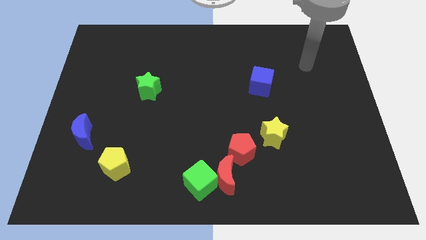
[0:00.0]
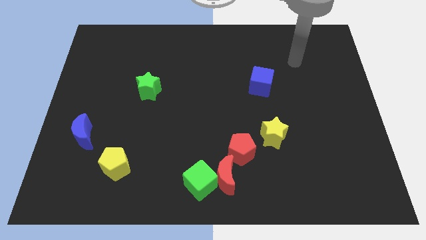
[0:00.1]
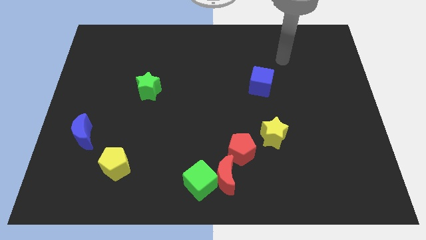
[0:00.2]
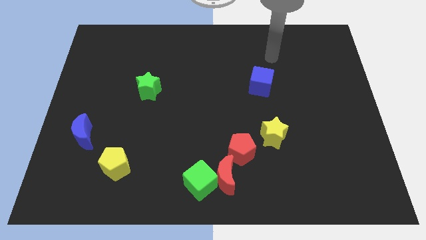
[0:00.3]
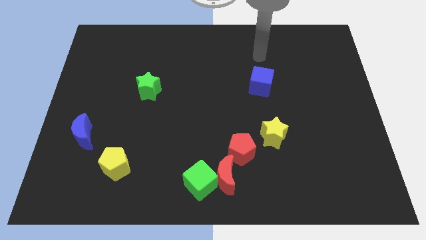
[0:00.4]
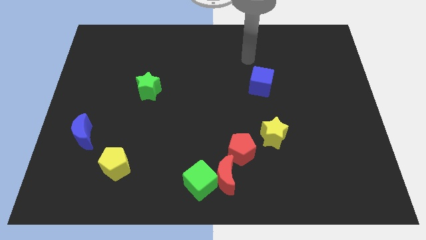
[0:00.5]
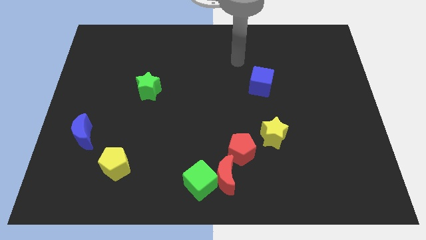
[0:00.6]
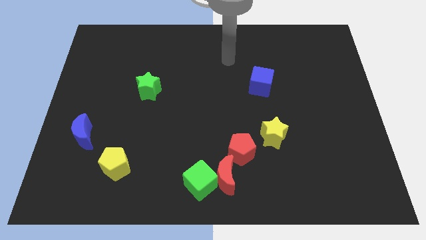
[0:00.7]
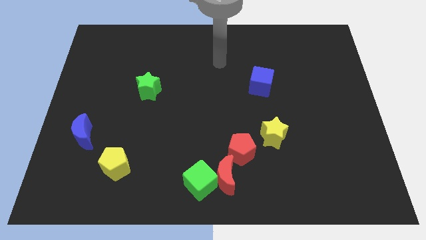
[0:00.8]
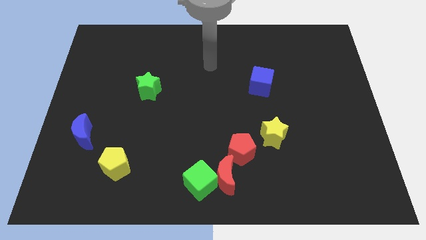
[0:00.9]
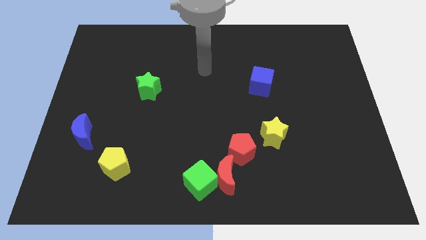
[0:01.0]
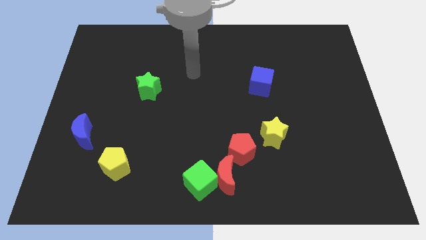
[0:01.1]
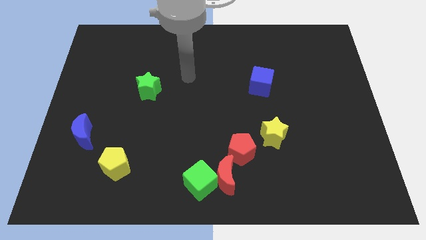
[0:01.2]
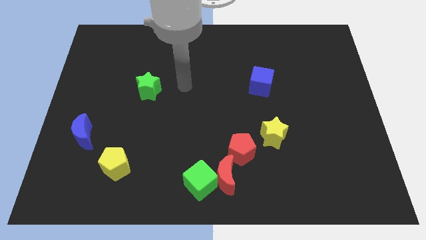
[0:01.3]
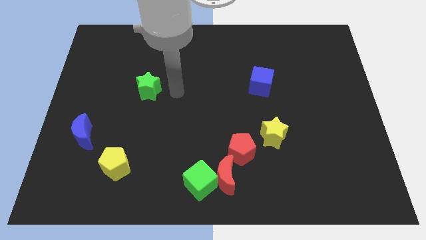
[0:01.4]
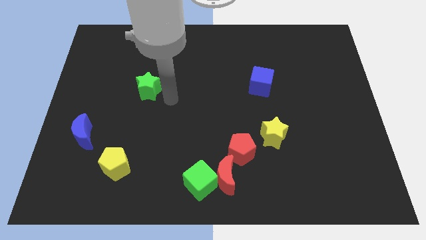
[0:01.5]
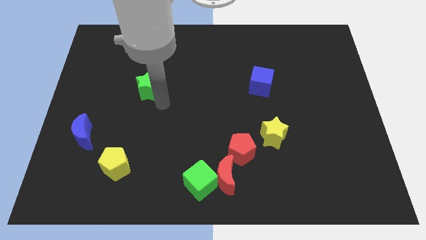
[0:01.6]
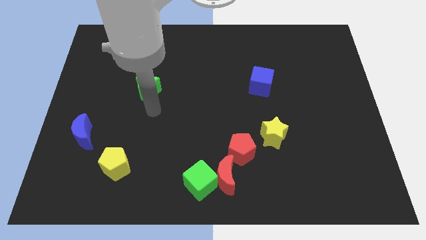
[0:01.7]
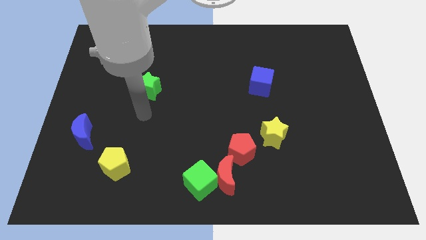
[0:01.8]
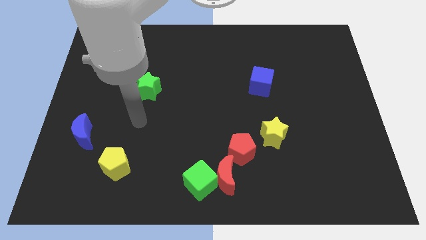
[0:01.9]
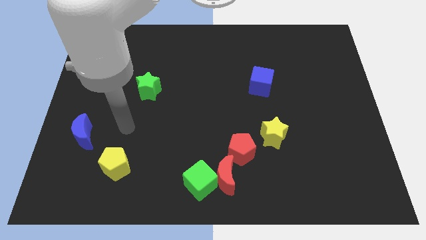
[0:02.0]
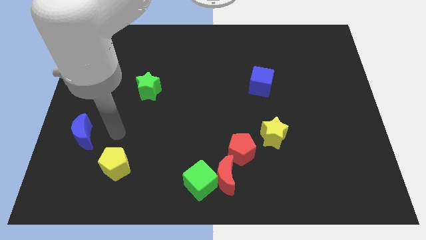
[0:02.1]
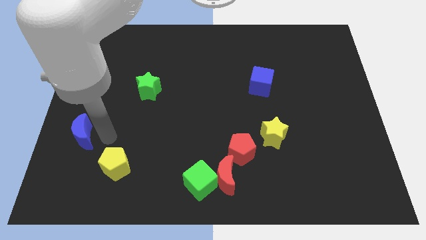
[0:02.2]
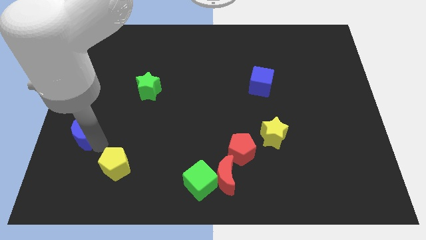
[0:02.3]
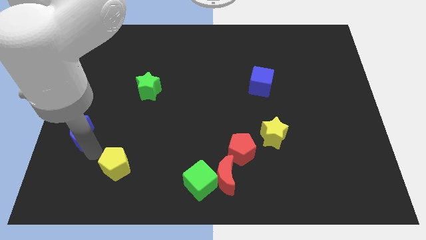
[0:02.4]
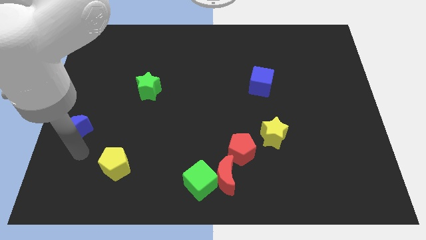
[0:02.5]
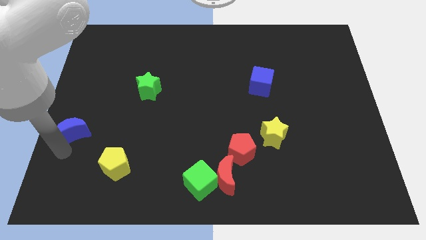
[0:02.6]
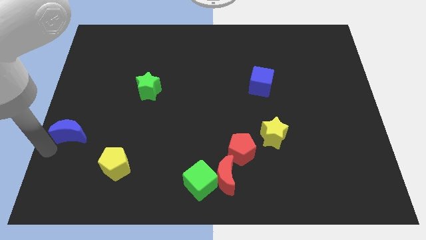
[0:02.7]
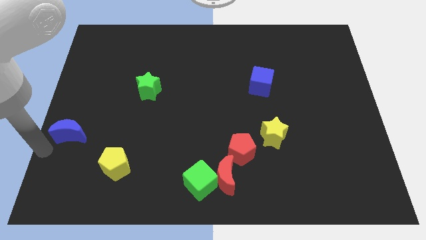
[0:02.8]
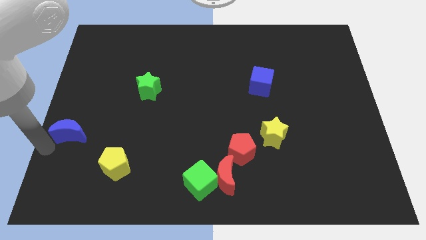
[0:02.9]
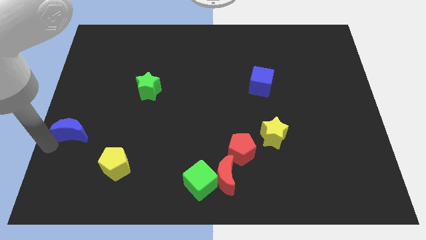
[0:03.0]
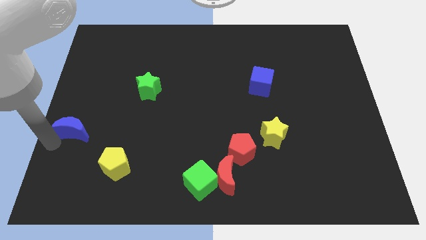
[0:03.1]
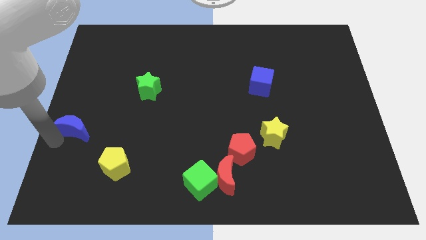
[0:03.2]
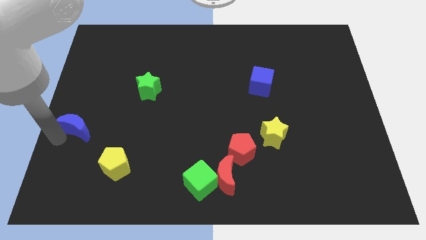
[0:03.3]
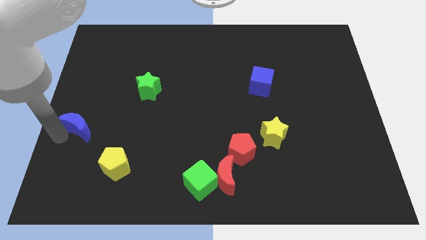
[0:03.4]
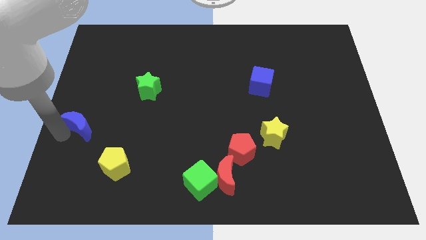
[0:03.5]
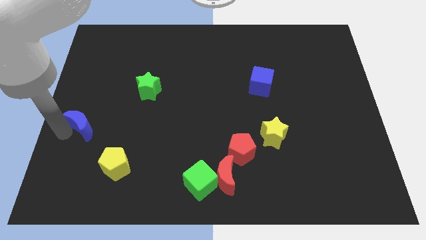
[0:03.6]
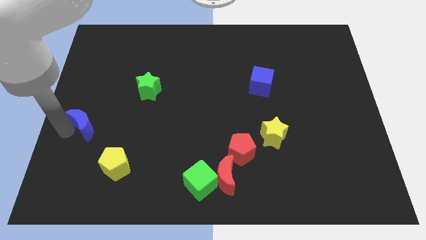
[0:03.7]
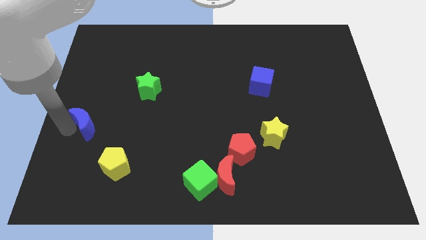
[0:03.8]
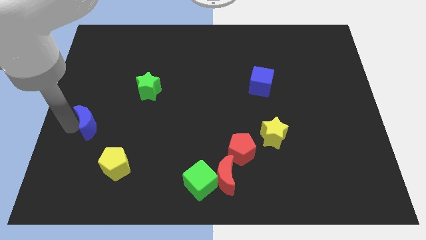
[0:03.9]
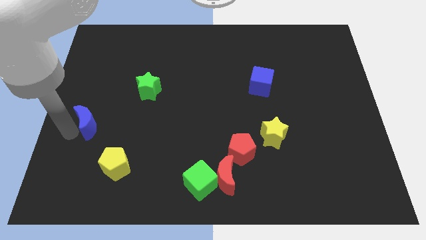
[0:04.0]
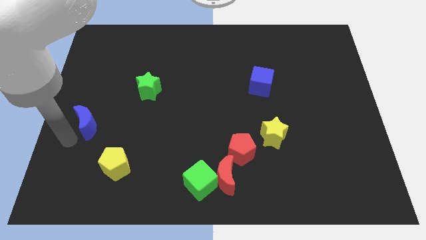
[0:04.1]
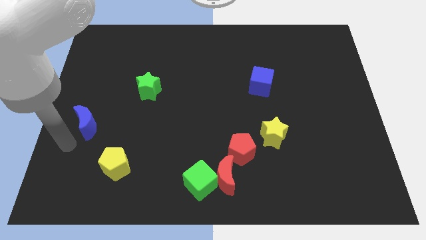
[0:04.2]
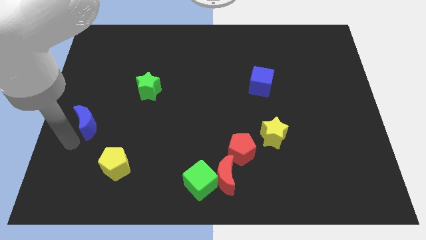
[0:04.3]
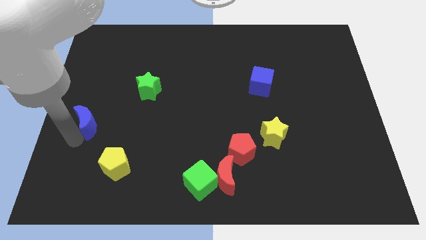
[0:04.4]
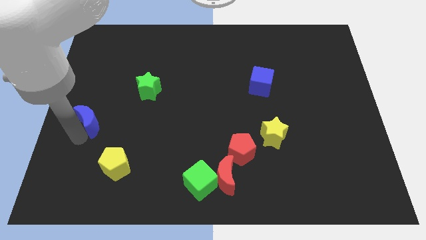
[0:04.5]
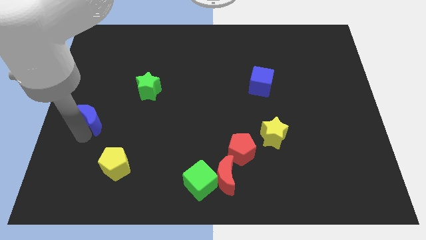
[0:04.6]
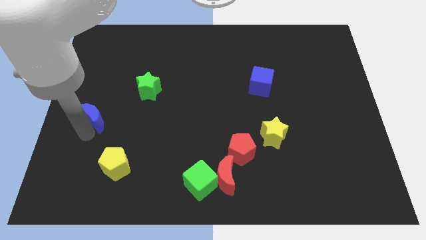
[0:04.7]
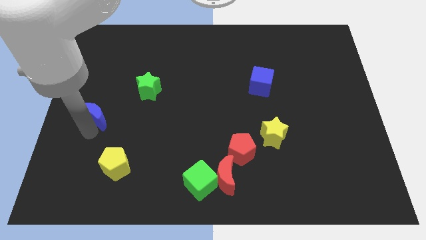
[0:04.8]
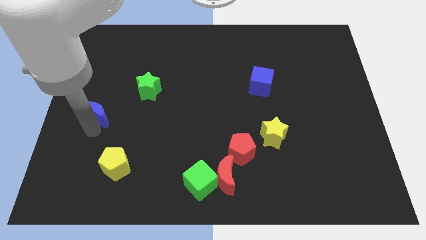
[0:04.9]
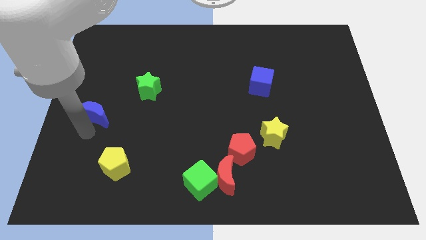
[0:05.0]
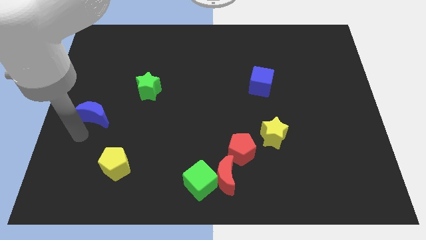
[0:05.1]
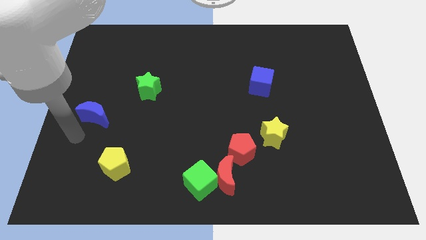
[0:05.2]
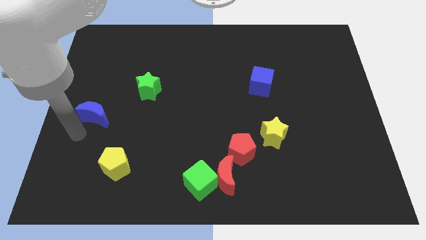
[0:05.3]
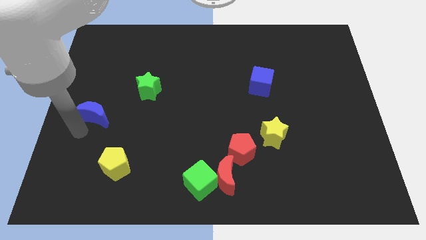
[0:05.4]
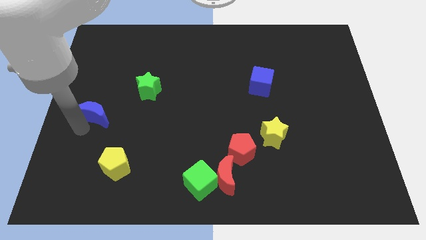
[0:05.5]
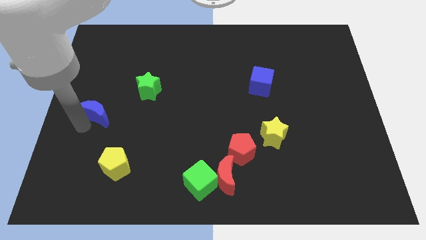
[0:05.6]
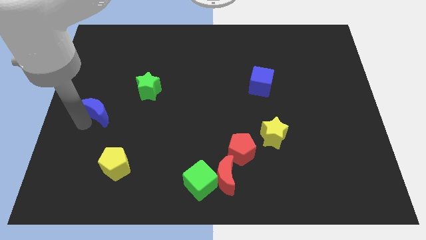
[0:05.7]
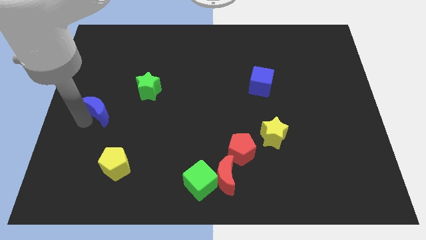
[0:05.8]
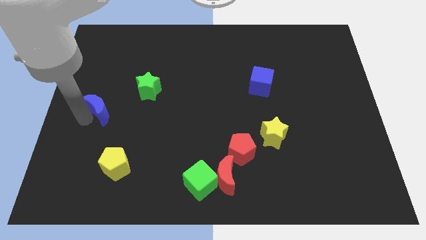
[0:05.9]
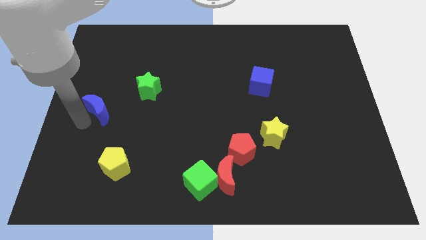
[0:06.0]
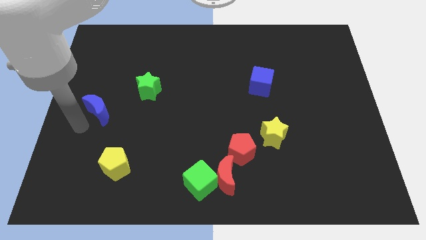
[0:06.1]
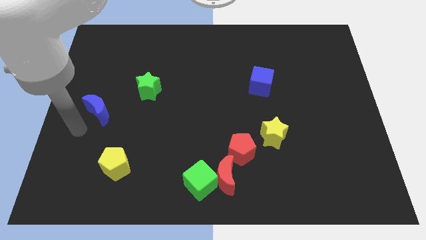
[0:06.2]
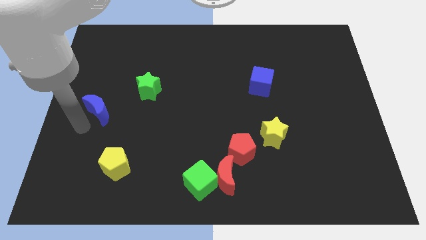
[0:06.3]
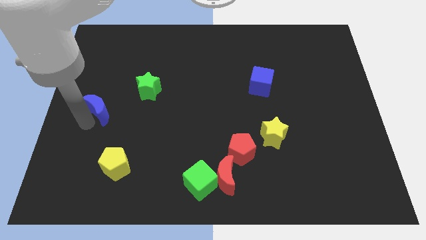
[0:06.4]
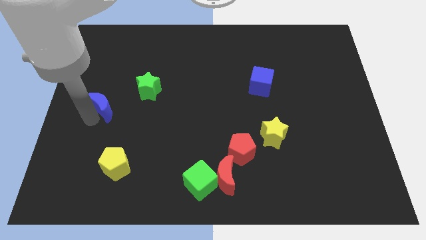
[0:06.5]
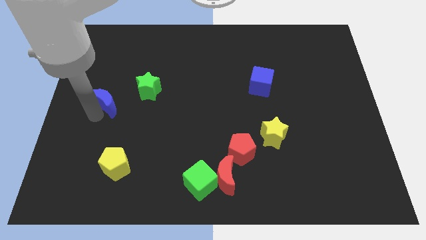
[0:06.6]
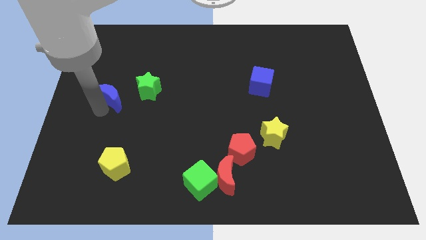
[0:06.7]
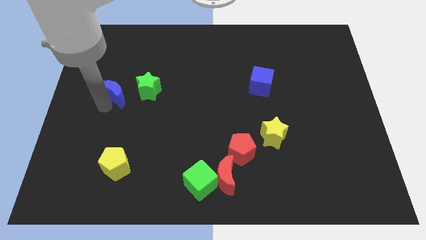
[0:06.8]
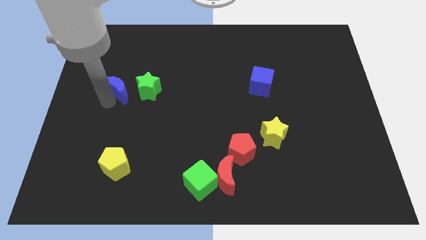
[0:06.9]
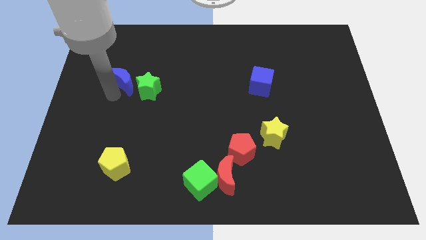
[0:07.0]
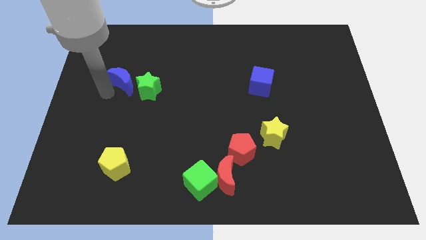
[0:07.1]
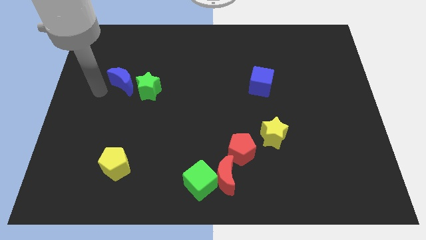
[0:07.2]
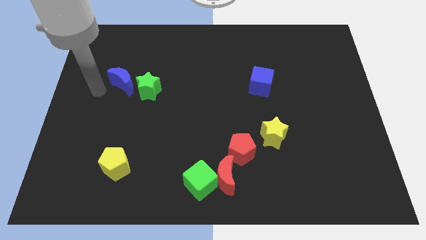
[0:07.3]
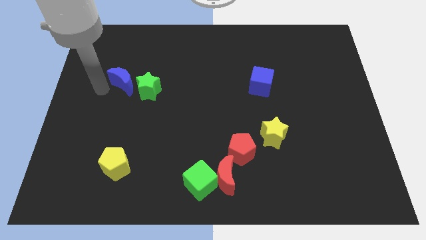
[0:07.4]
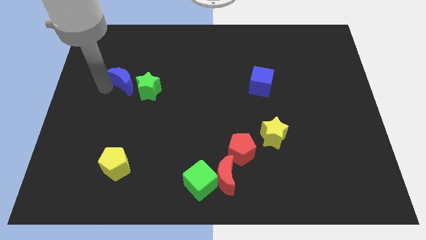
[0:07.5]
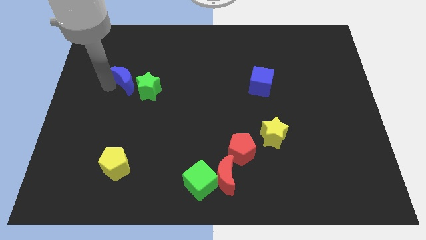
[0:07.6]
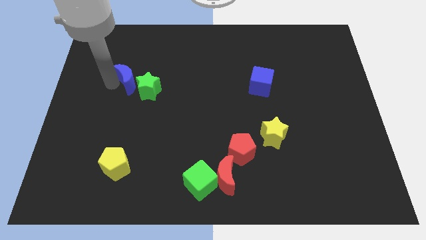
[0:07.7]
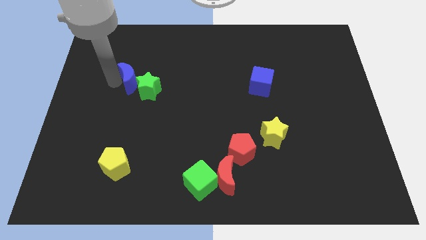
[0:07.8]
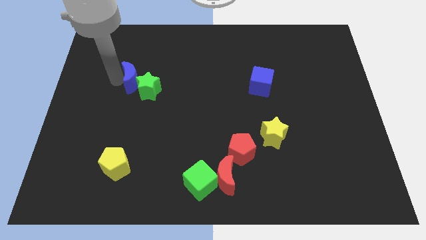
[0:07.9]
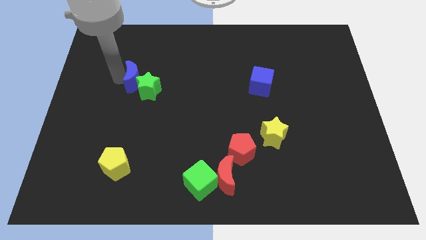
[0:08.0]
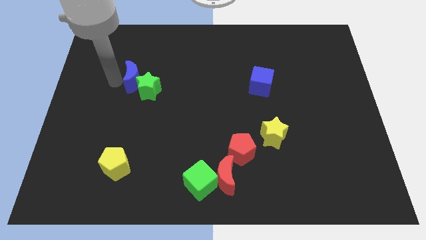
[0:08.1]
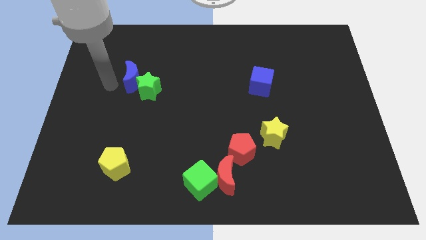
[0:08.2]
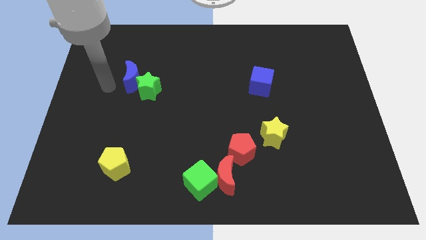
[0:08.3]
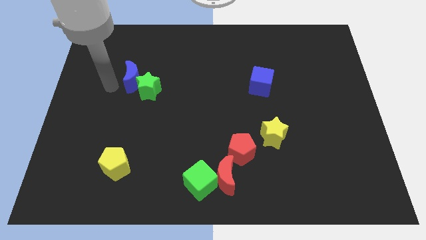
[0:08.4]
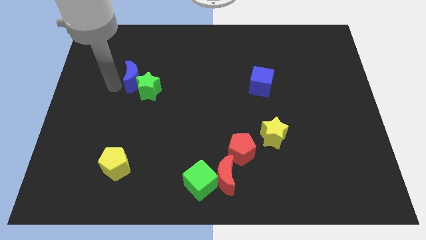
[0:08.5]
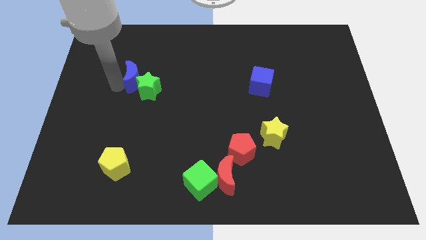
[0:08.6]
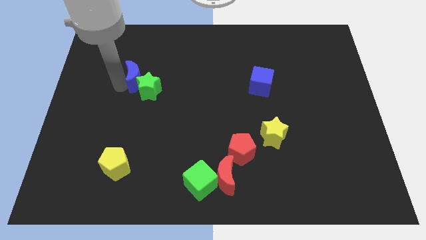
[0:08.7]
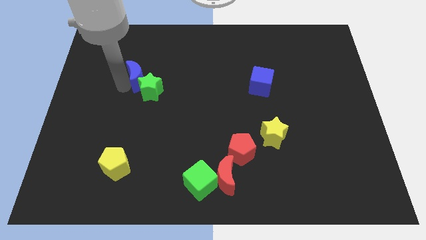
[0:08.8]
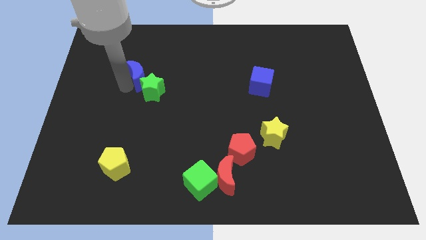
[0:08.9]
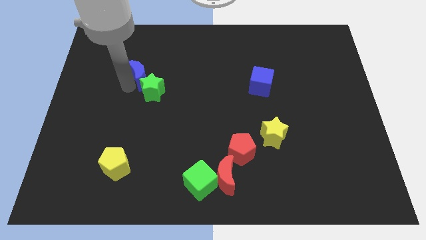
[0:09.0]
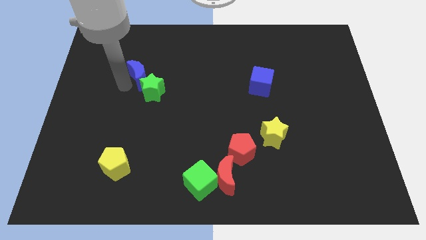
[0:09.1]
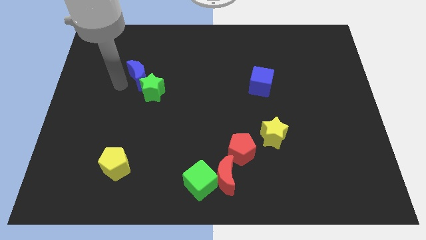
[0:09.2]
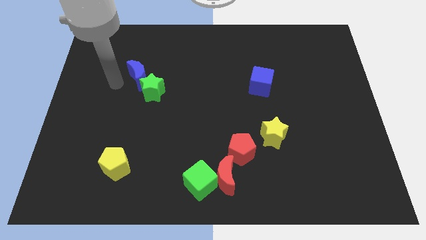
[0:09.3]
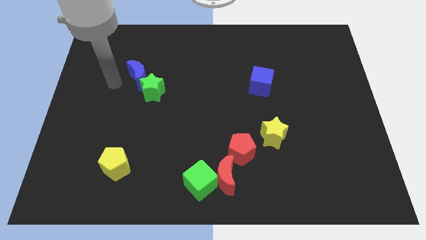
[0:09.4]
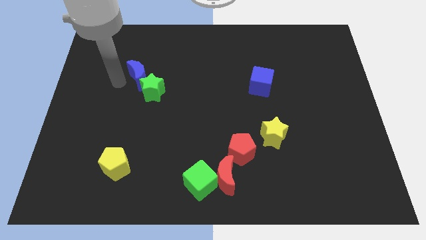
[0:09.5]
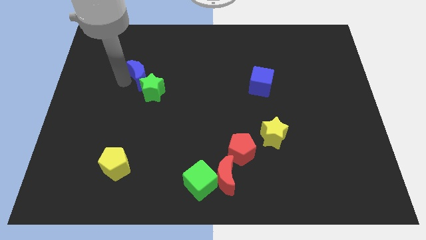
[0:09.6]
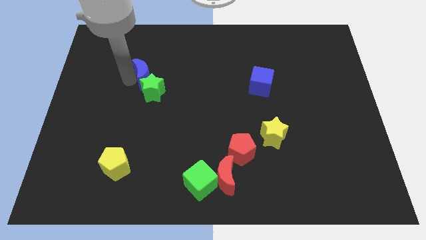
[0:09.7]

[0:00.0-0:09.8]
push the blue moon upwards and to the right diagonally
